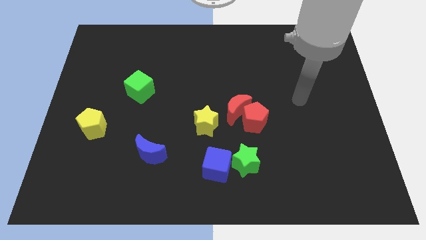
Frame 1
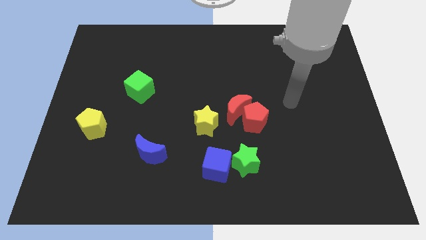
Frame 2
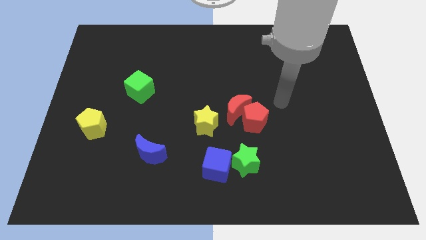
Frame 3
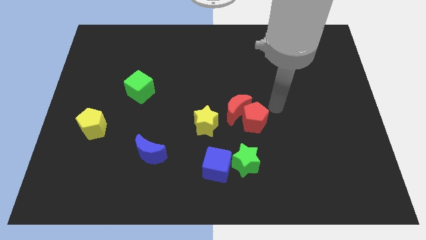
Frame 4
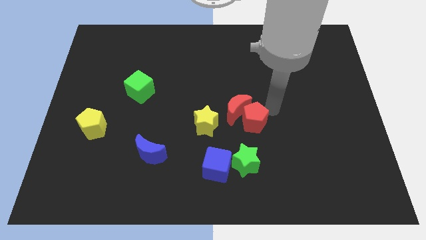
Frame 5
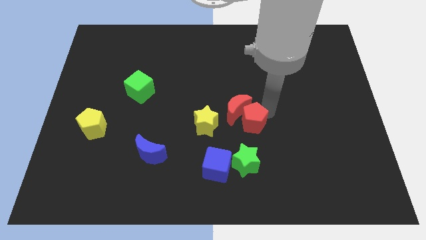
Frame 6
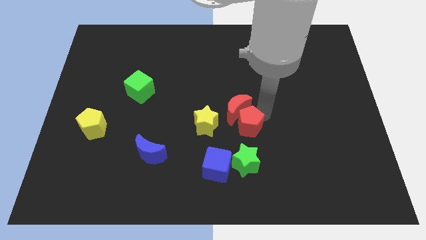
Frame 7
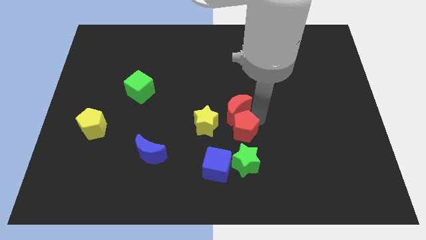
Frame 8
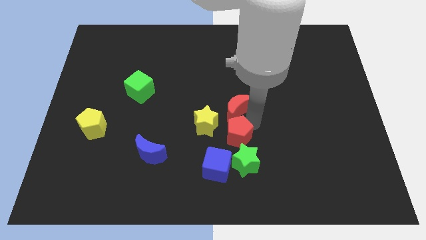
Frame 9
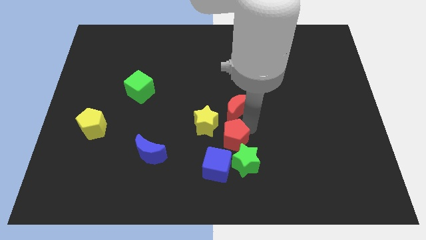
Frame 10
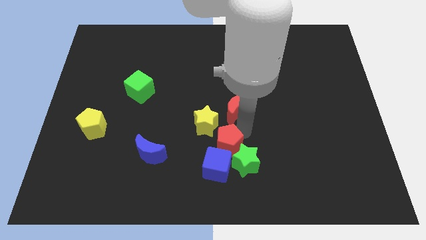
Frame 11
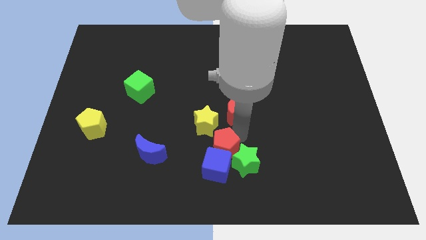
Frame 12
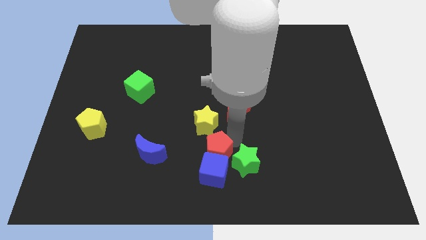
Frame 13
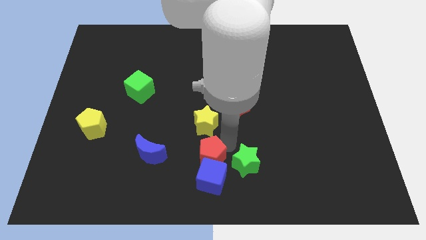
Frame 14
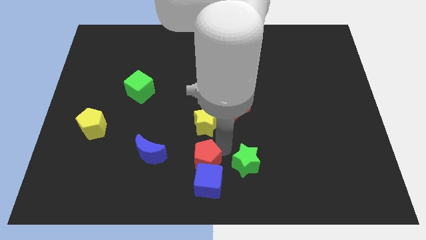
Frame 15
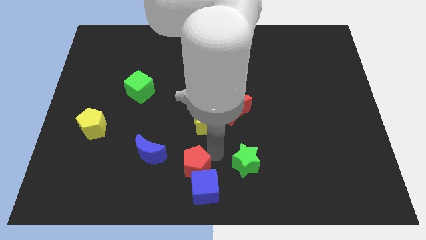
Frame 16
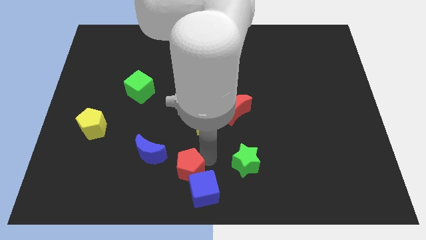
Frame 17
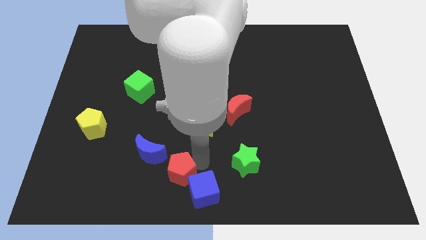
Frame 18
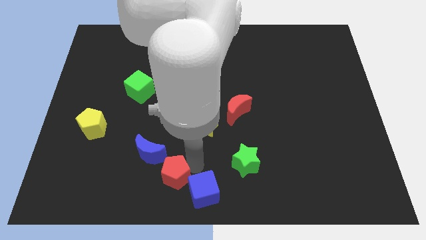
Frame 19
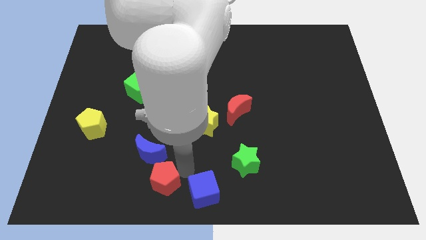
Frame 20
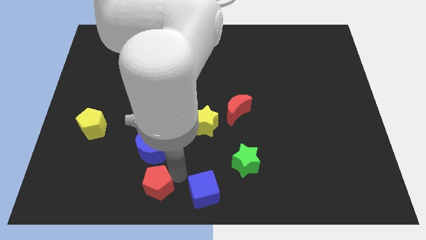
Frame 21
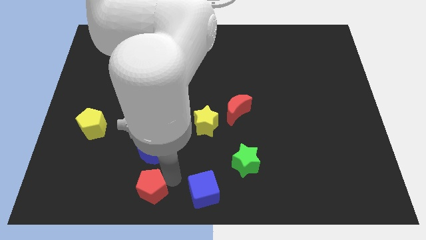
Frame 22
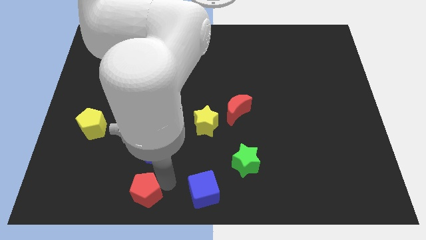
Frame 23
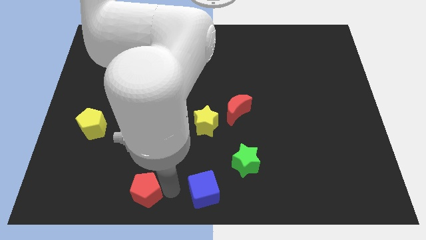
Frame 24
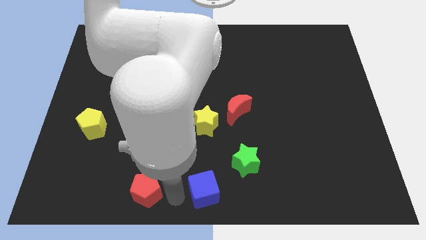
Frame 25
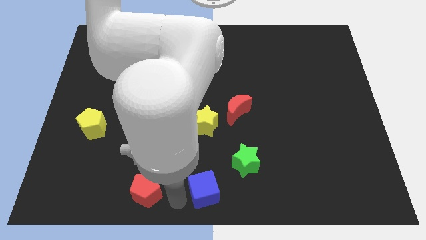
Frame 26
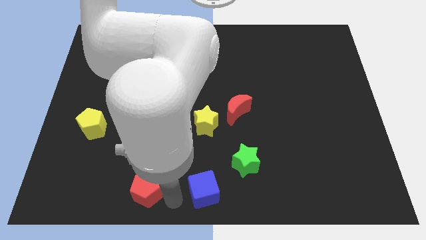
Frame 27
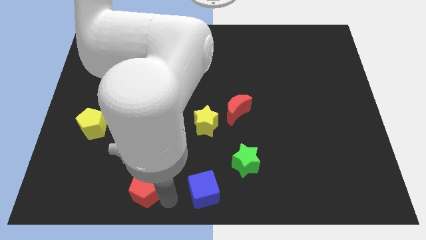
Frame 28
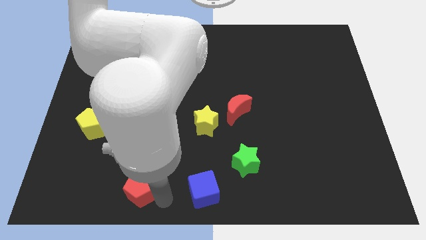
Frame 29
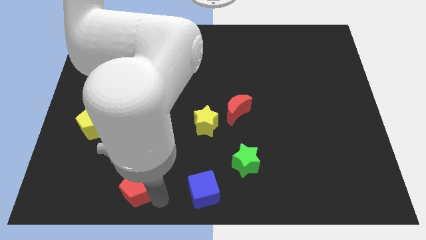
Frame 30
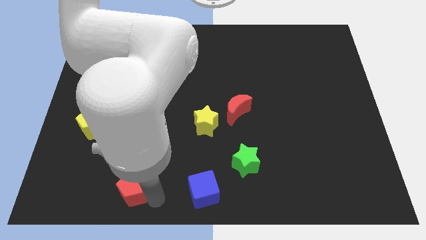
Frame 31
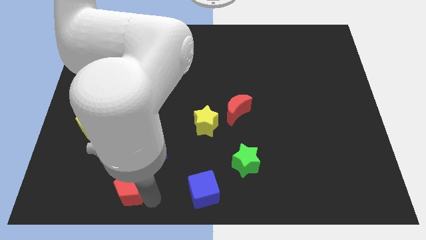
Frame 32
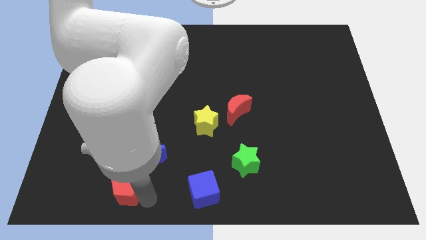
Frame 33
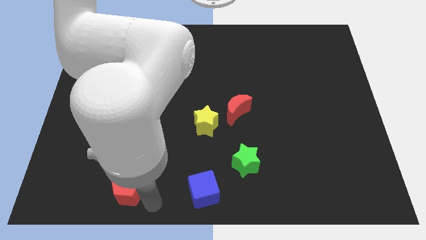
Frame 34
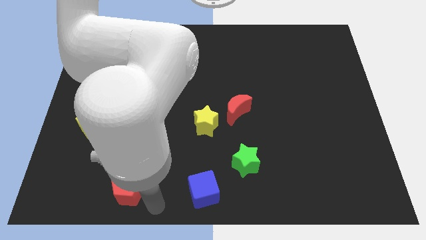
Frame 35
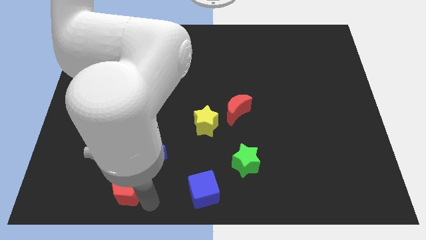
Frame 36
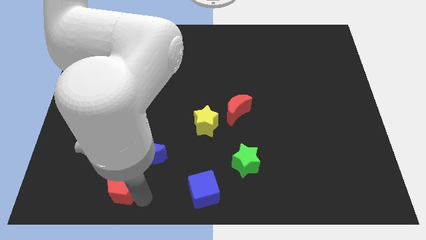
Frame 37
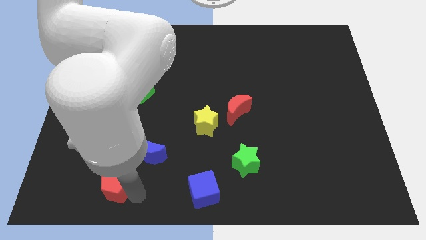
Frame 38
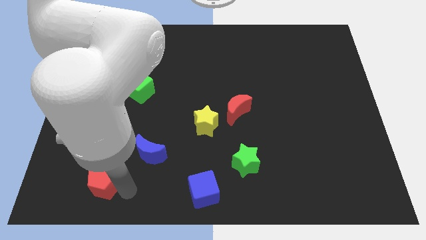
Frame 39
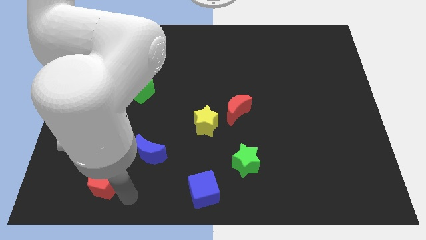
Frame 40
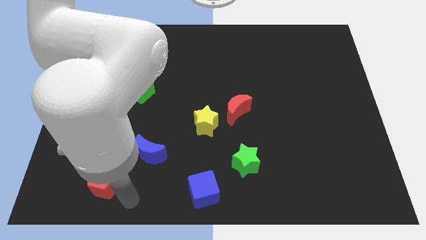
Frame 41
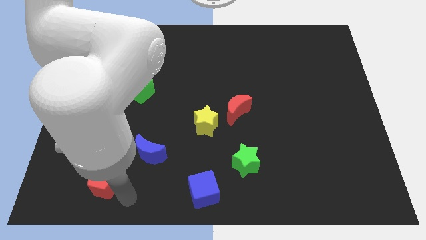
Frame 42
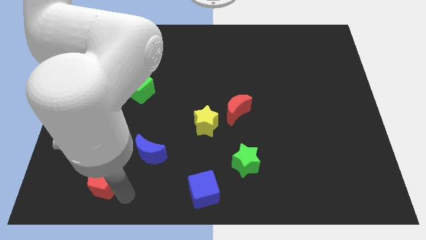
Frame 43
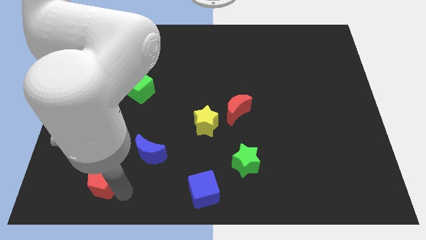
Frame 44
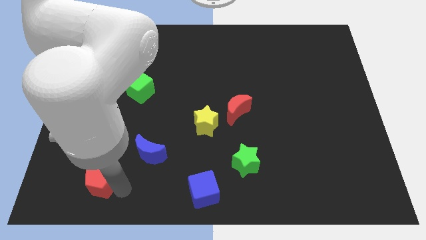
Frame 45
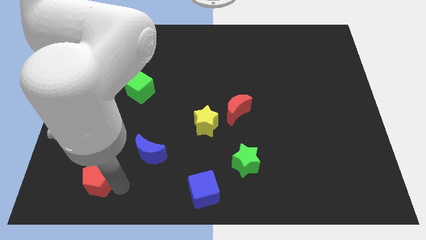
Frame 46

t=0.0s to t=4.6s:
slide the red pentagon to the bottom side of the yellow pentagon

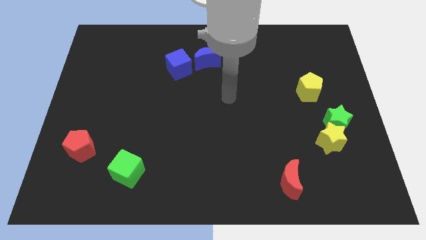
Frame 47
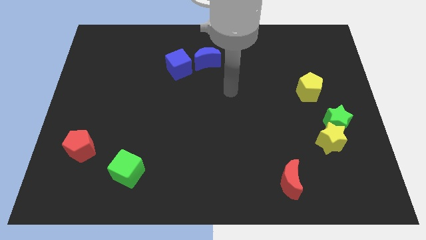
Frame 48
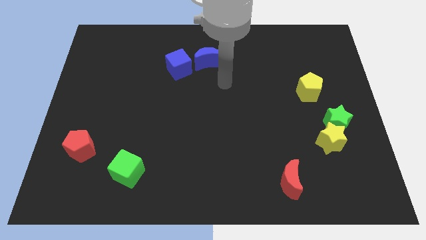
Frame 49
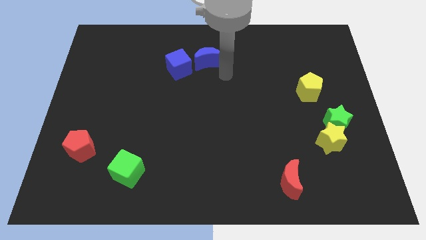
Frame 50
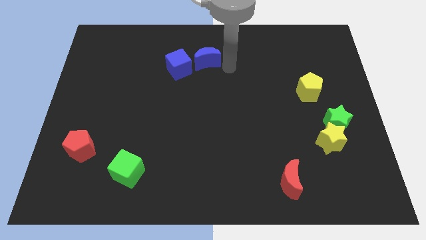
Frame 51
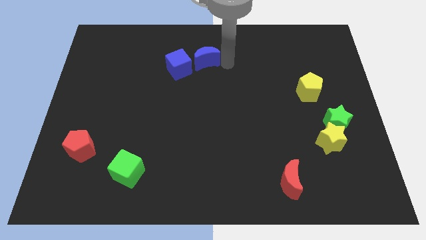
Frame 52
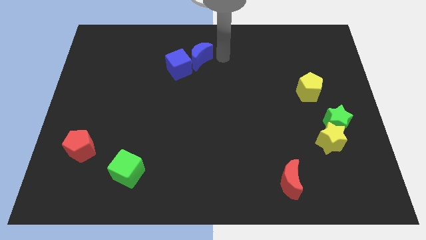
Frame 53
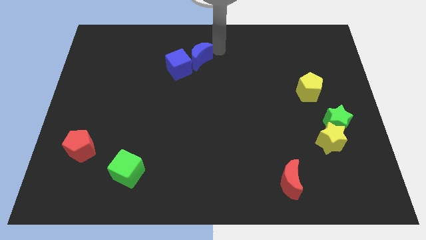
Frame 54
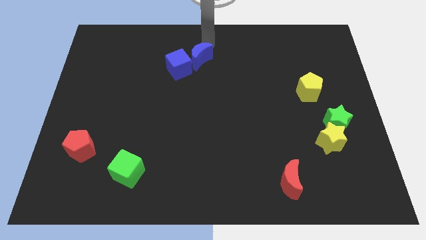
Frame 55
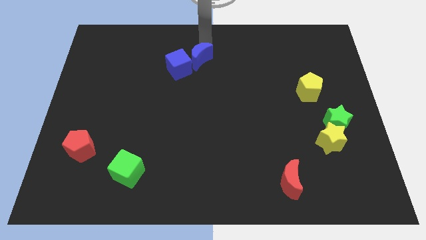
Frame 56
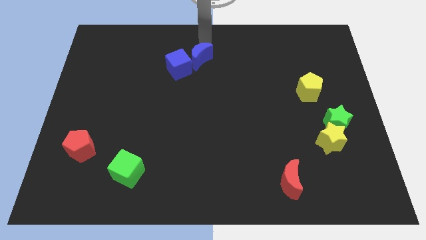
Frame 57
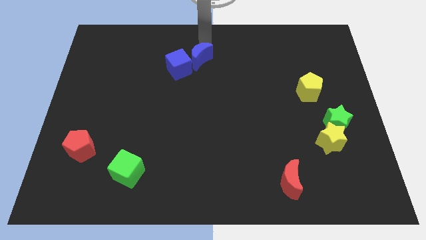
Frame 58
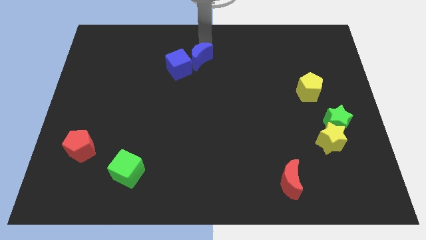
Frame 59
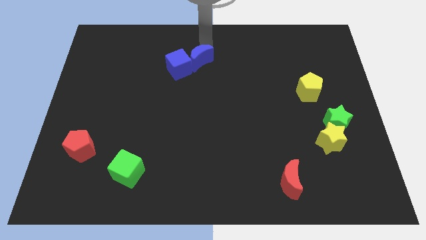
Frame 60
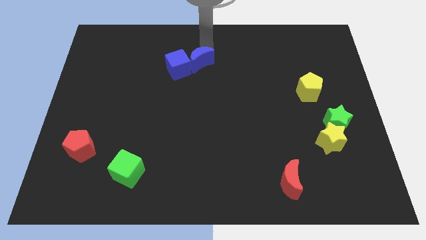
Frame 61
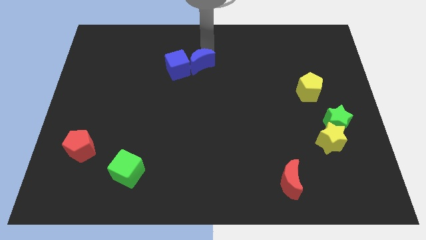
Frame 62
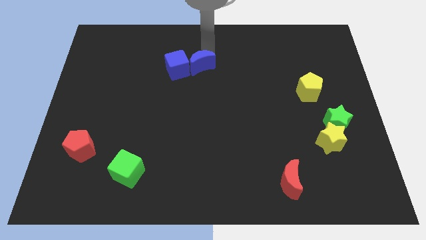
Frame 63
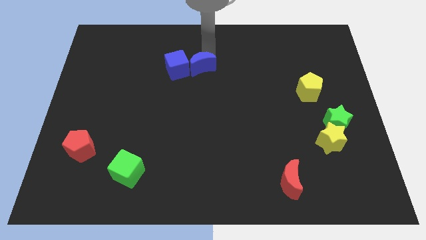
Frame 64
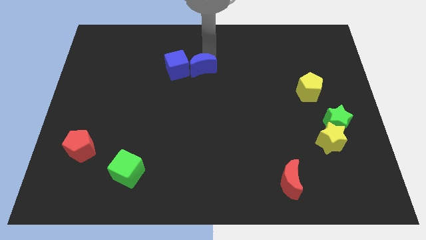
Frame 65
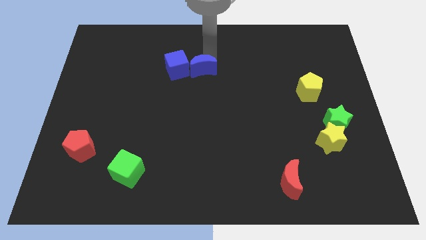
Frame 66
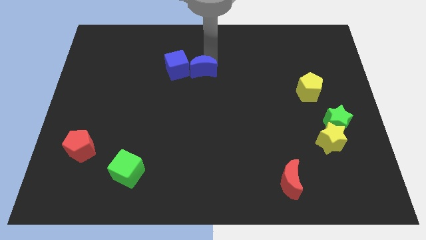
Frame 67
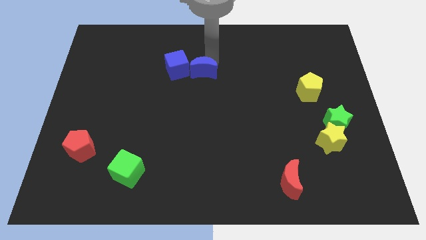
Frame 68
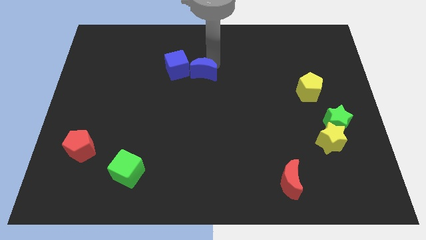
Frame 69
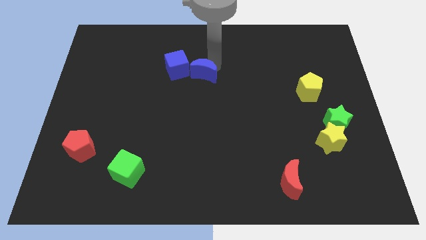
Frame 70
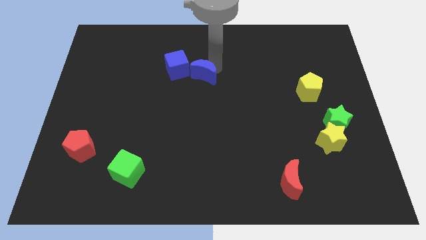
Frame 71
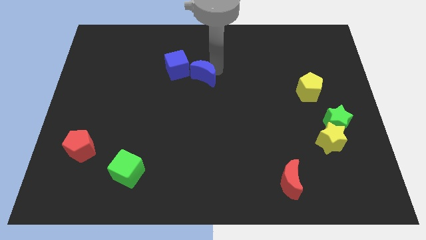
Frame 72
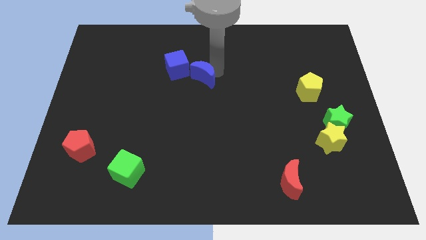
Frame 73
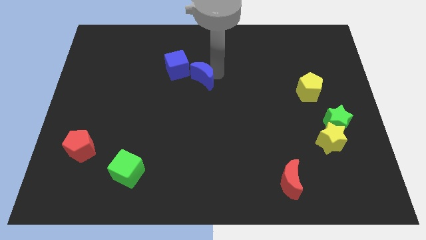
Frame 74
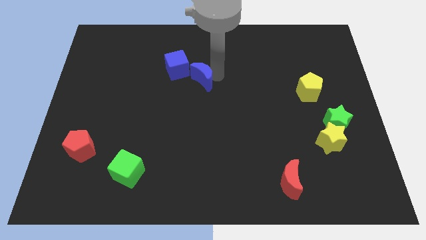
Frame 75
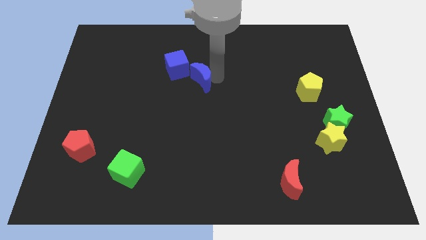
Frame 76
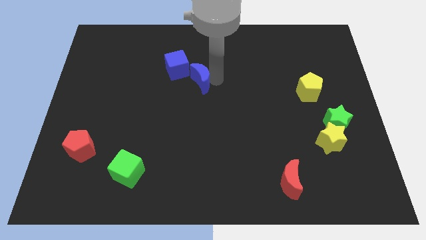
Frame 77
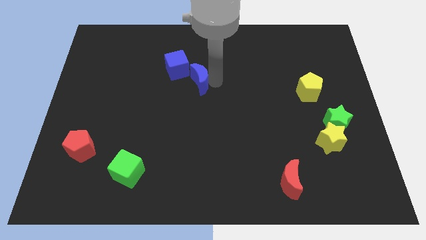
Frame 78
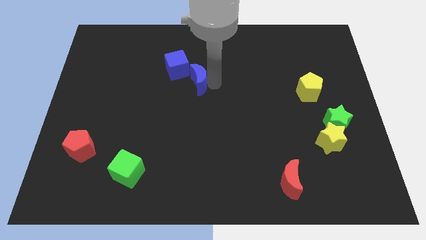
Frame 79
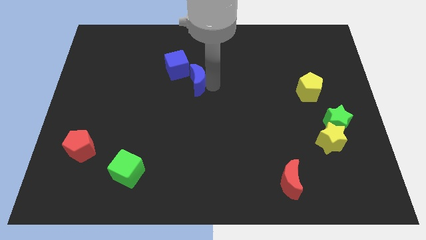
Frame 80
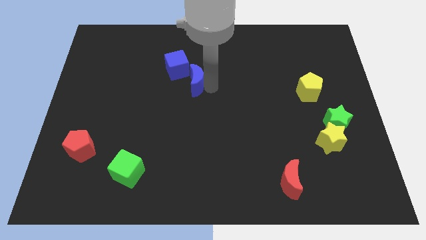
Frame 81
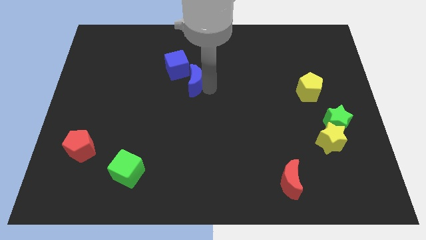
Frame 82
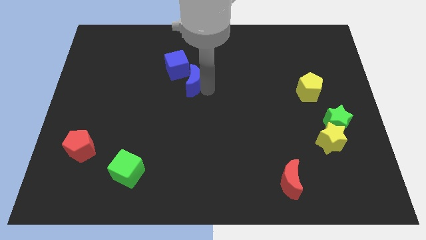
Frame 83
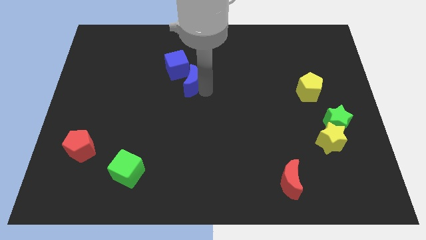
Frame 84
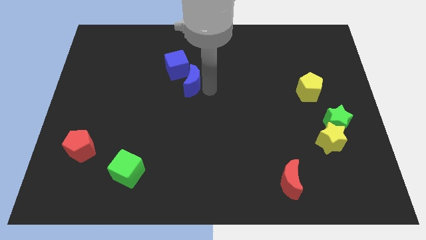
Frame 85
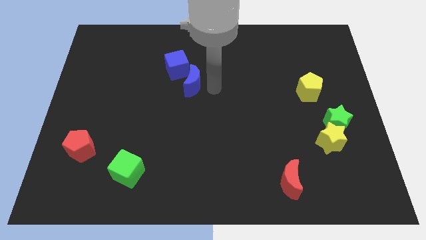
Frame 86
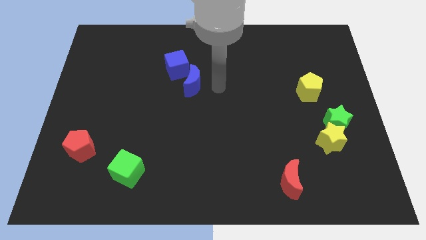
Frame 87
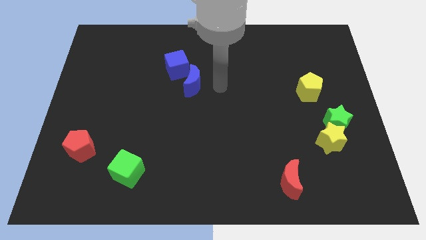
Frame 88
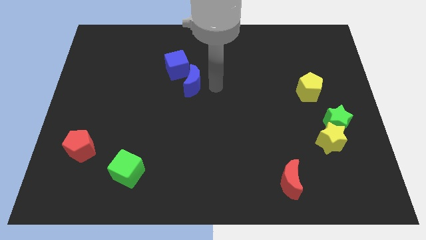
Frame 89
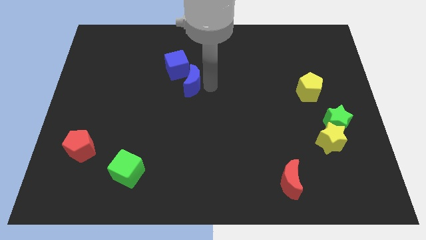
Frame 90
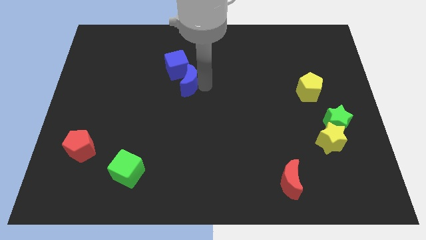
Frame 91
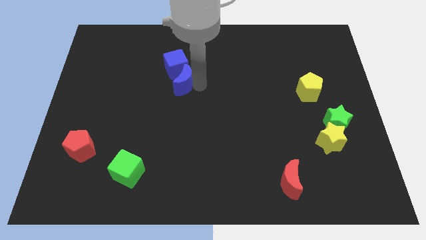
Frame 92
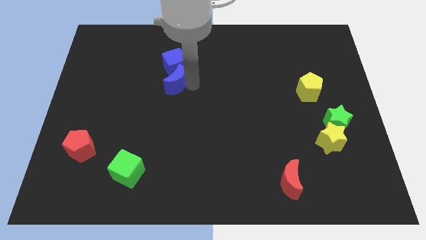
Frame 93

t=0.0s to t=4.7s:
put the blue moon to the bottom left of the blue cube
